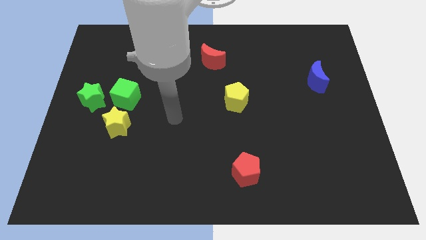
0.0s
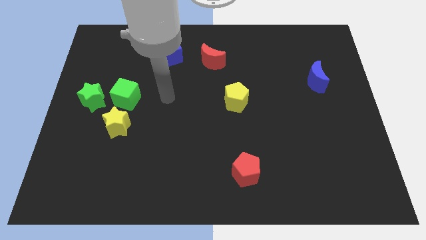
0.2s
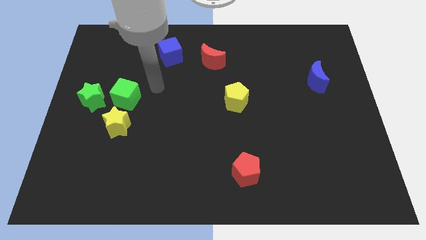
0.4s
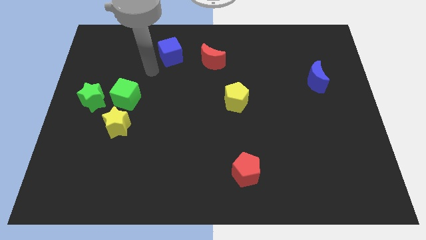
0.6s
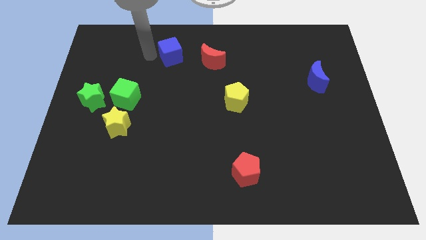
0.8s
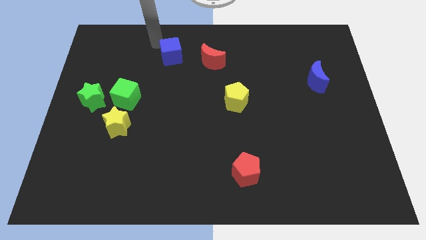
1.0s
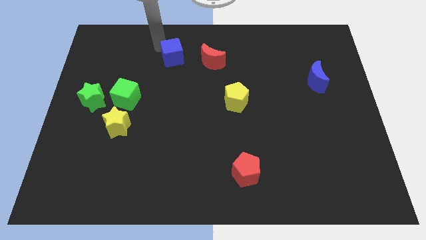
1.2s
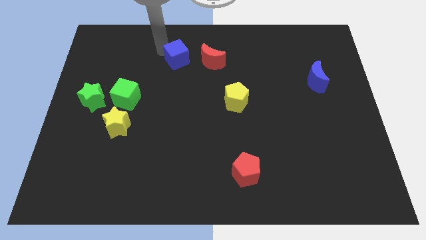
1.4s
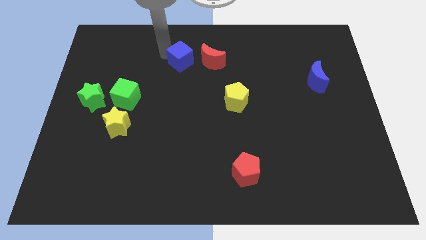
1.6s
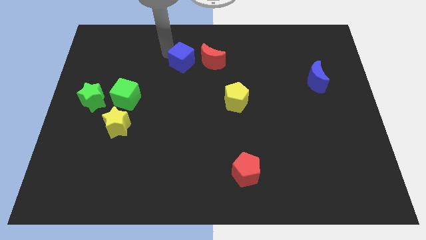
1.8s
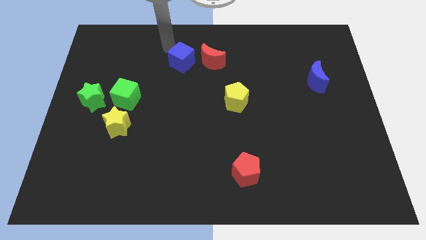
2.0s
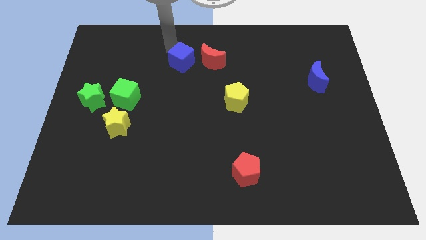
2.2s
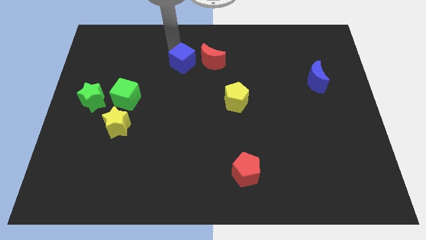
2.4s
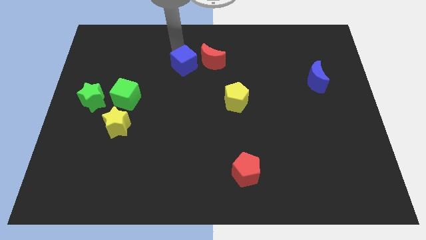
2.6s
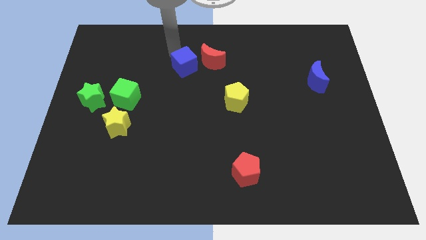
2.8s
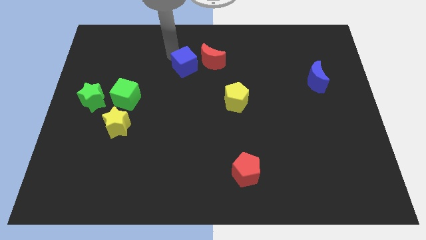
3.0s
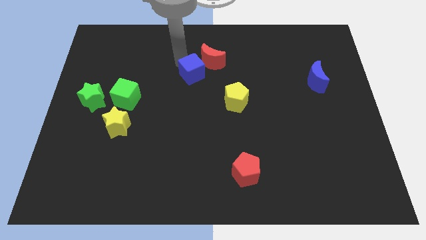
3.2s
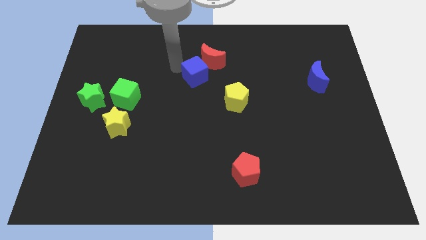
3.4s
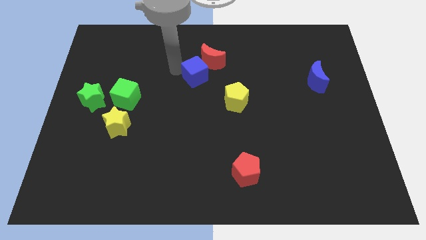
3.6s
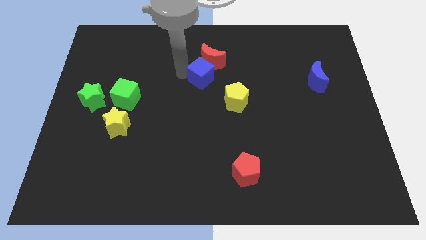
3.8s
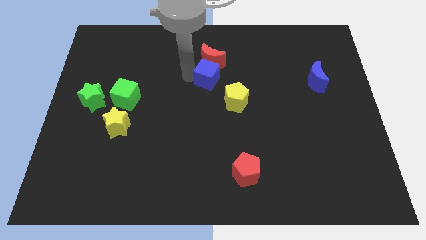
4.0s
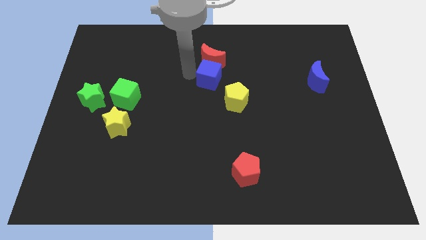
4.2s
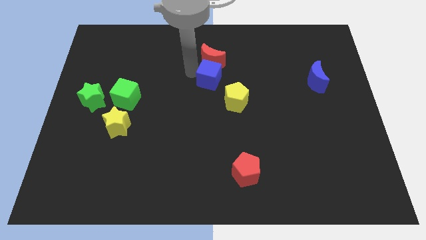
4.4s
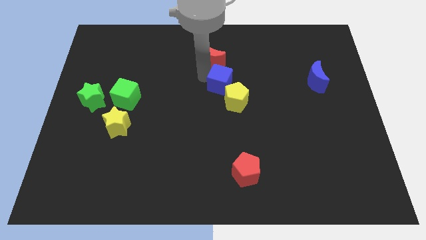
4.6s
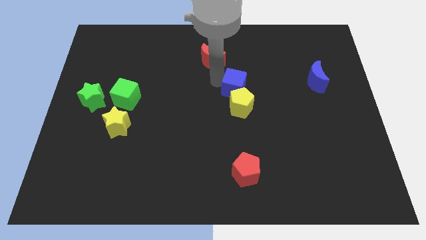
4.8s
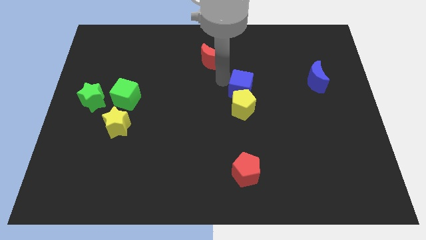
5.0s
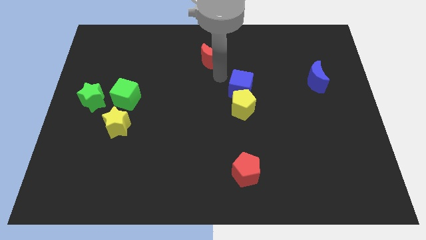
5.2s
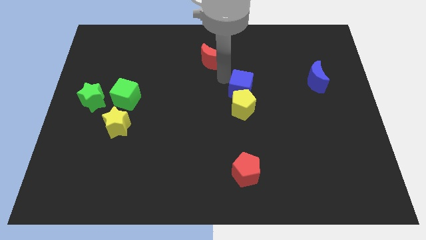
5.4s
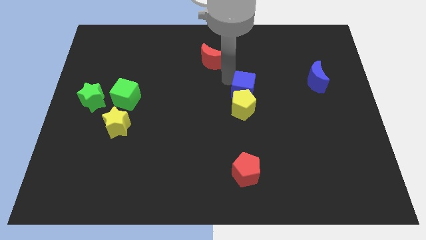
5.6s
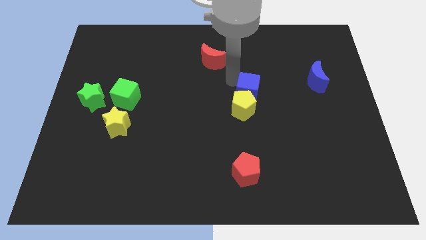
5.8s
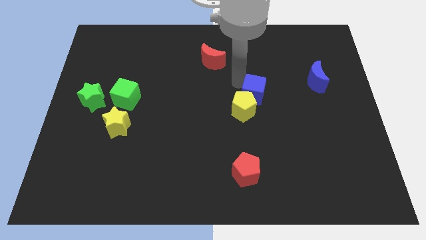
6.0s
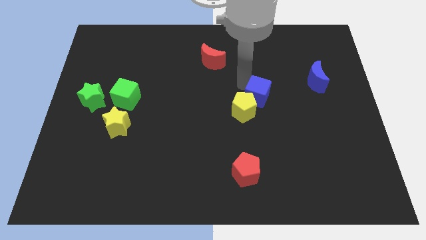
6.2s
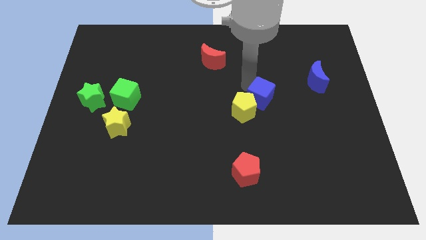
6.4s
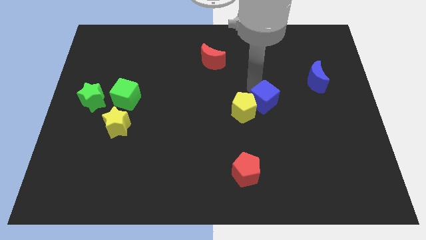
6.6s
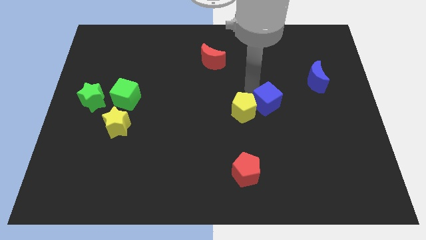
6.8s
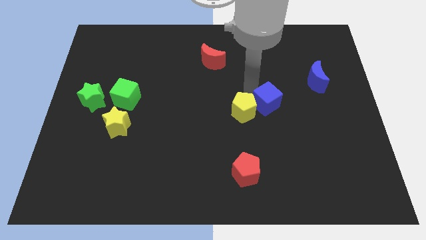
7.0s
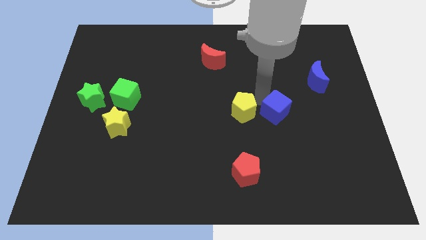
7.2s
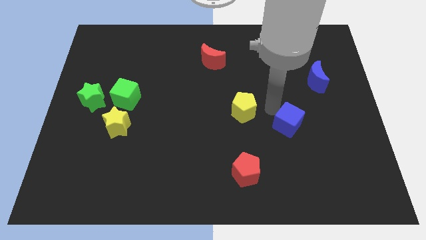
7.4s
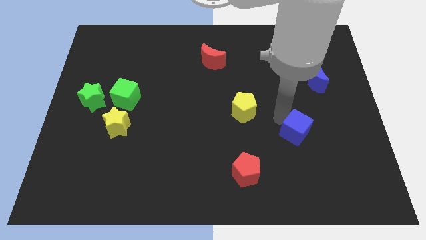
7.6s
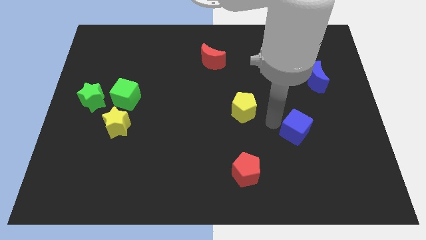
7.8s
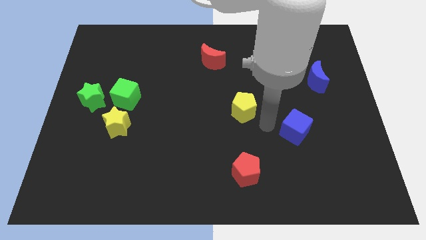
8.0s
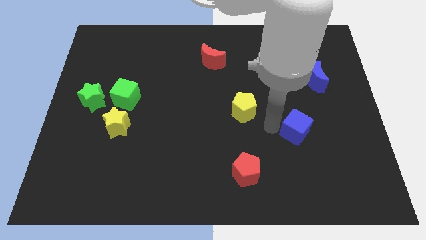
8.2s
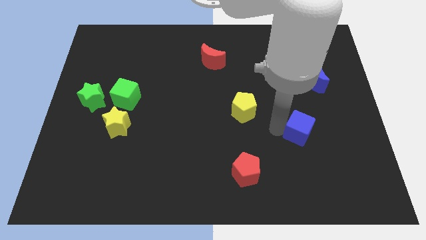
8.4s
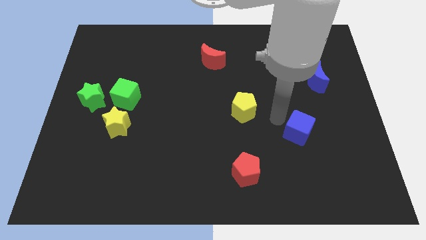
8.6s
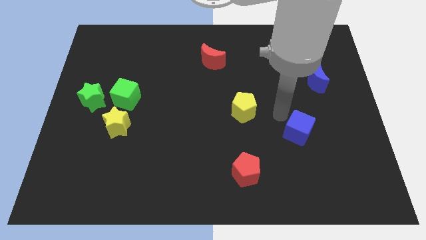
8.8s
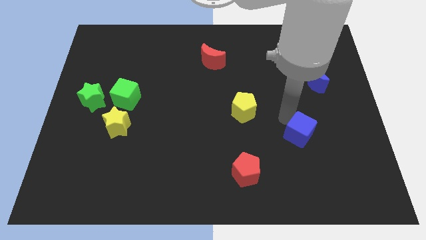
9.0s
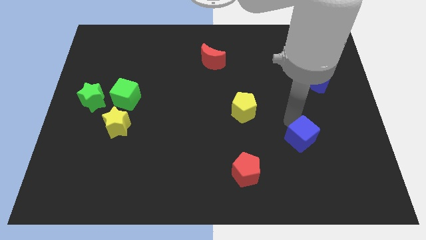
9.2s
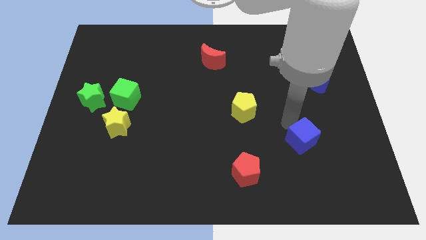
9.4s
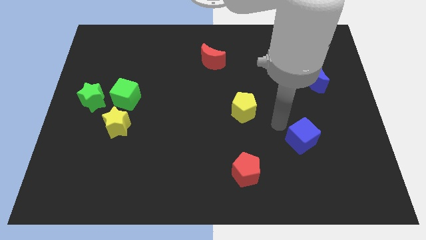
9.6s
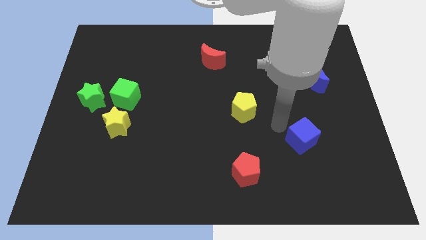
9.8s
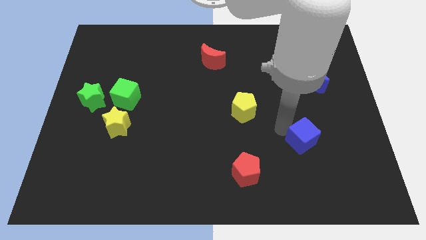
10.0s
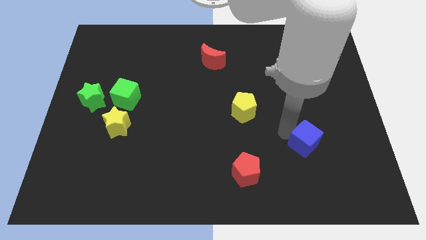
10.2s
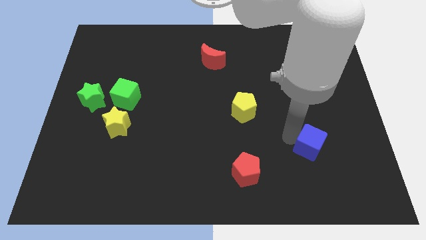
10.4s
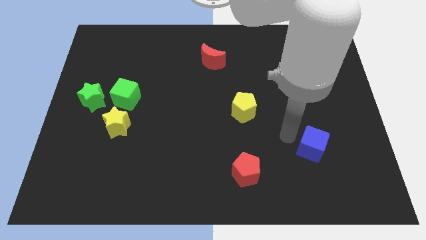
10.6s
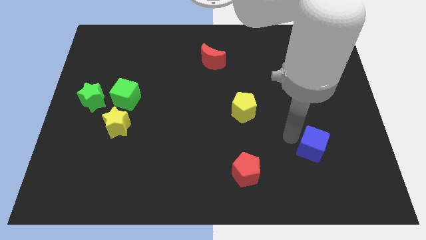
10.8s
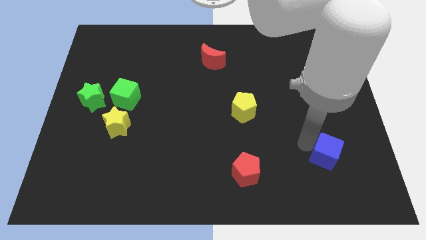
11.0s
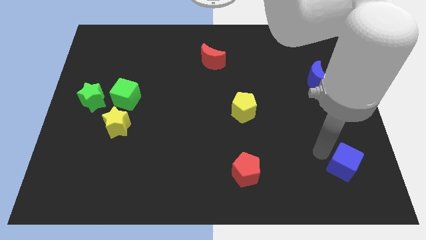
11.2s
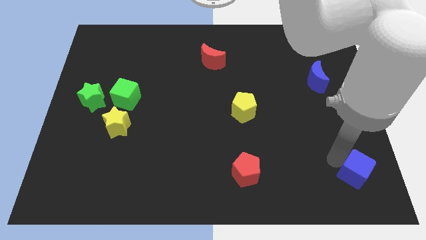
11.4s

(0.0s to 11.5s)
put the blue cube to the bottom right

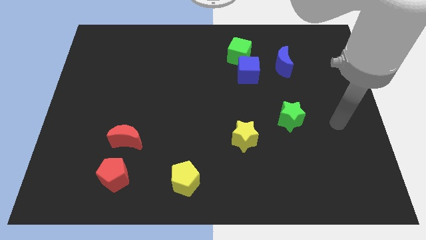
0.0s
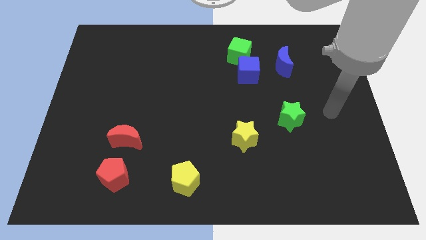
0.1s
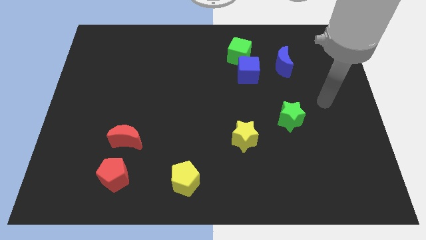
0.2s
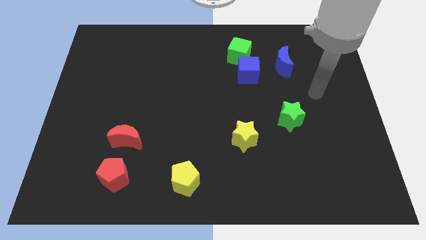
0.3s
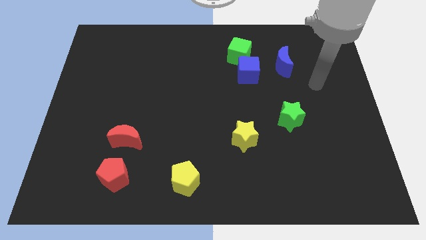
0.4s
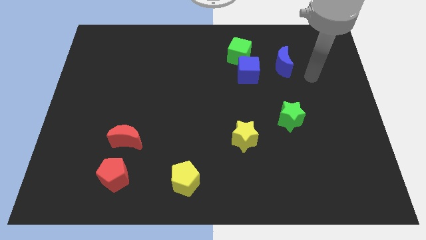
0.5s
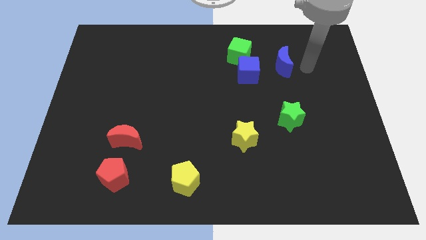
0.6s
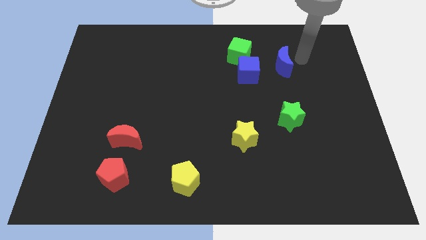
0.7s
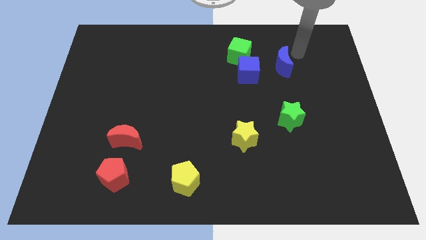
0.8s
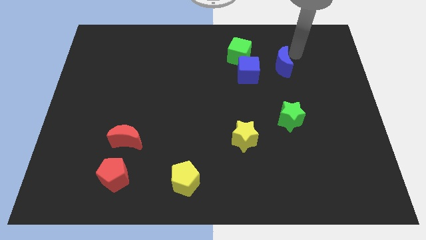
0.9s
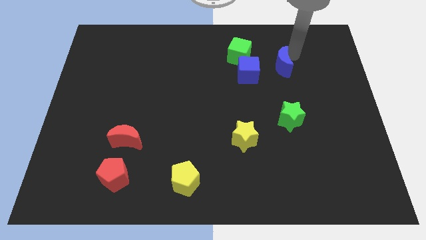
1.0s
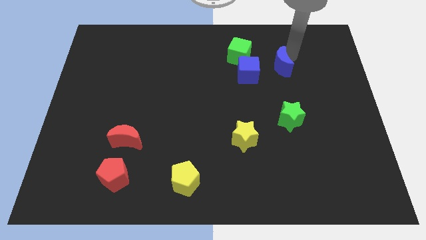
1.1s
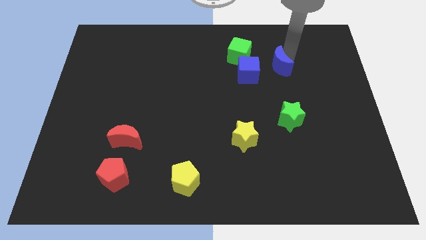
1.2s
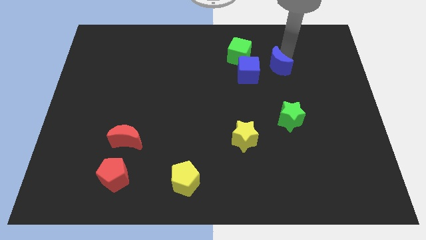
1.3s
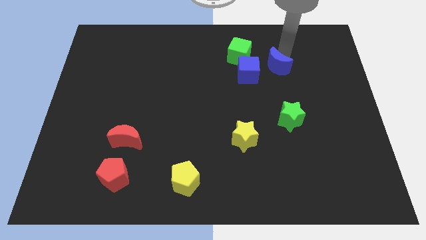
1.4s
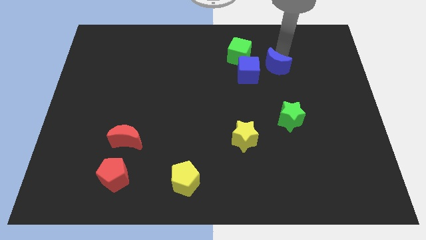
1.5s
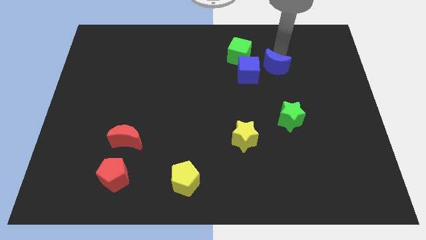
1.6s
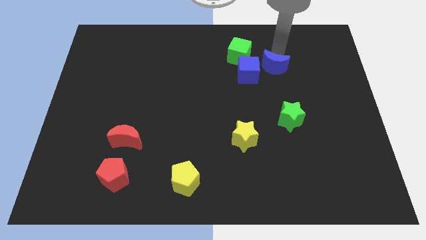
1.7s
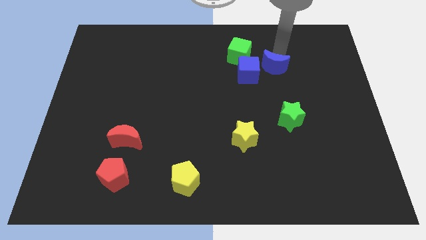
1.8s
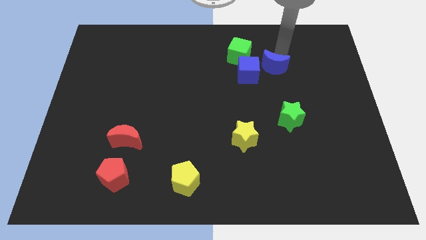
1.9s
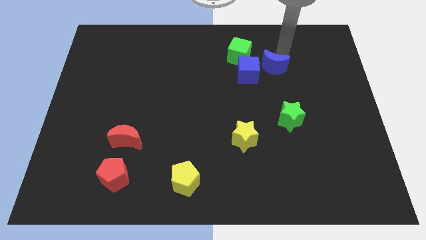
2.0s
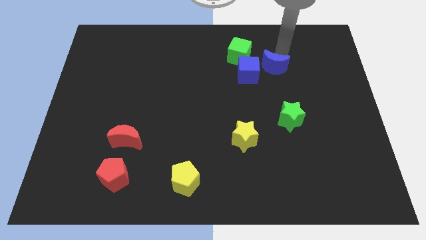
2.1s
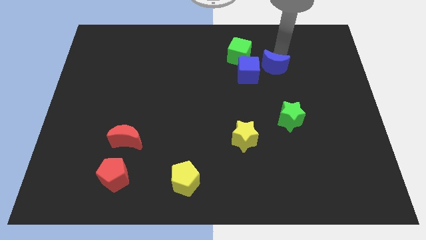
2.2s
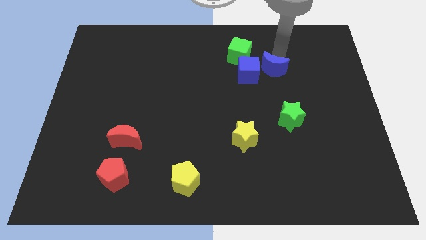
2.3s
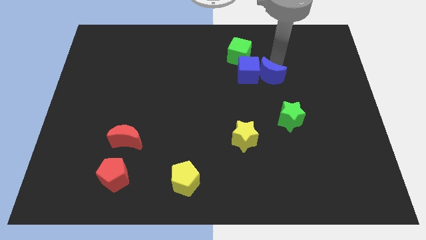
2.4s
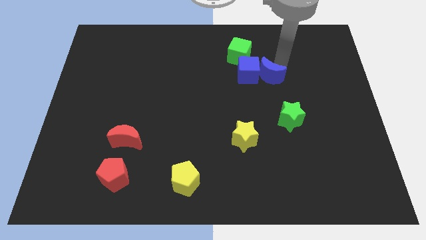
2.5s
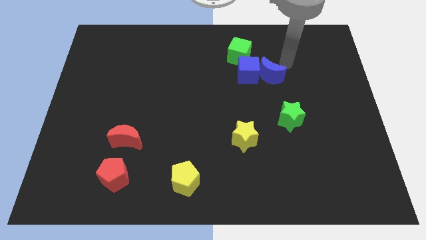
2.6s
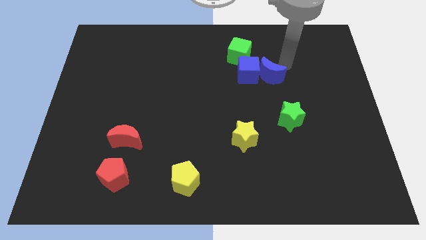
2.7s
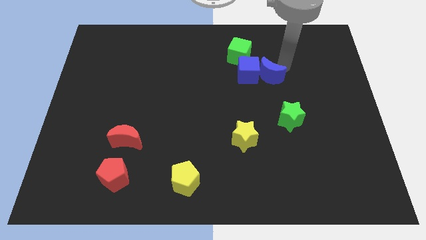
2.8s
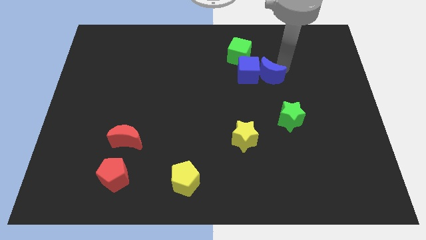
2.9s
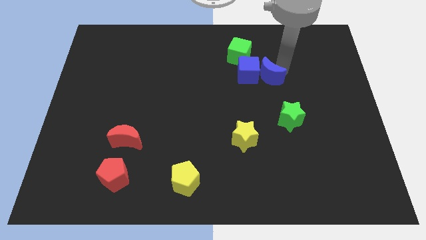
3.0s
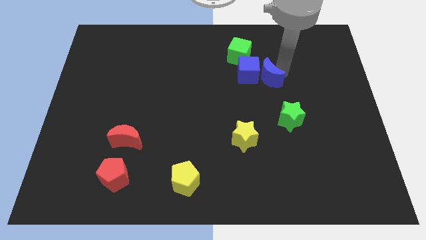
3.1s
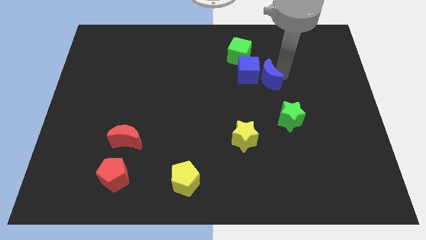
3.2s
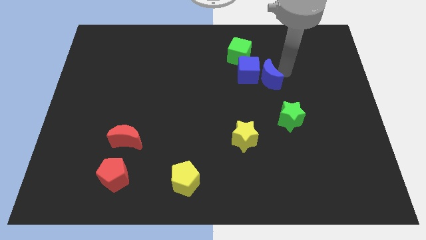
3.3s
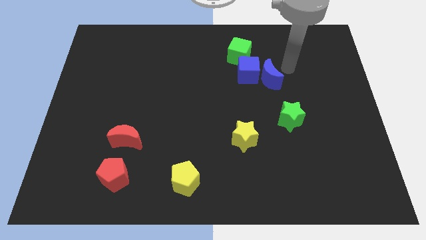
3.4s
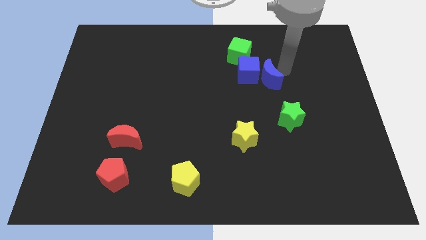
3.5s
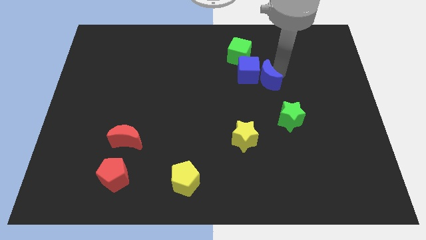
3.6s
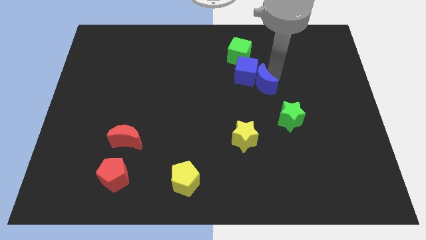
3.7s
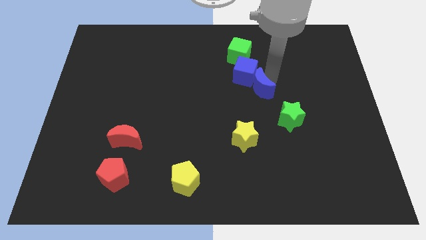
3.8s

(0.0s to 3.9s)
push the blue moon to the middle
